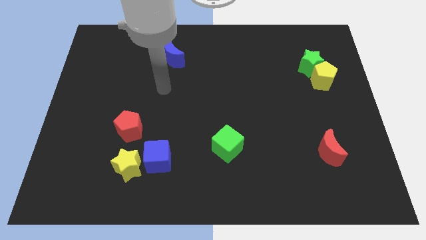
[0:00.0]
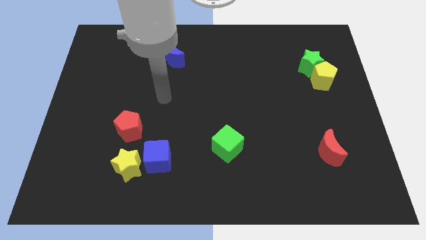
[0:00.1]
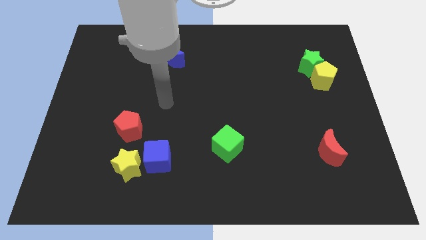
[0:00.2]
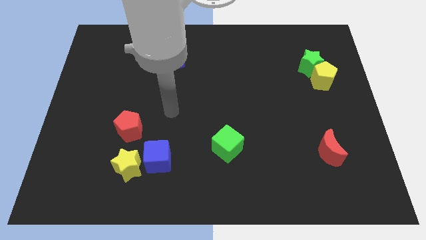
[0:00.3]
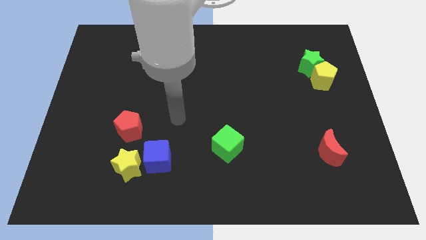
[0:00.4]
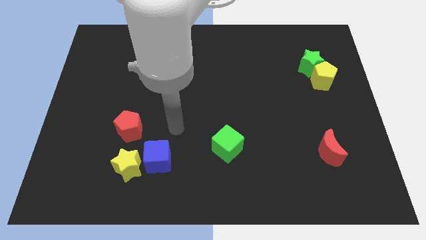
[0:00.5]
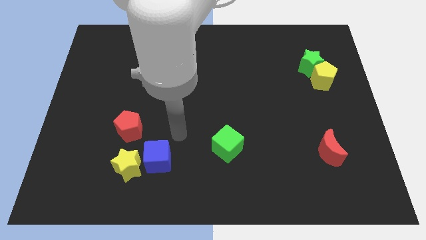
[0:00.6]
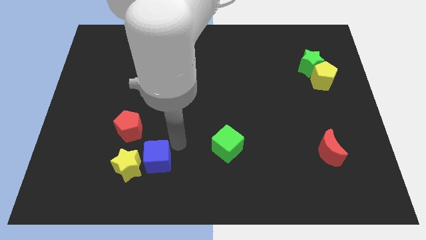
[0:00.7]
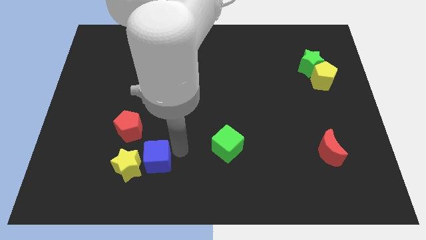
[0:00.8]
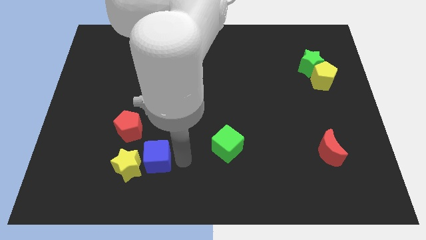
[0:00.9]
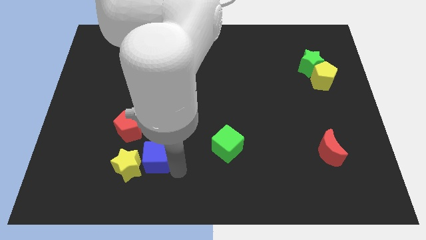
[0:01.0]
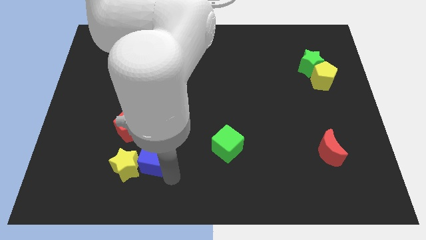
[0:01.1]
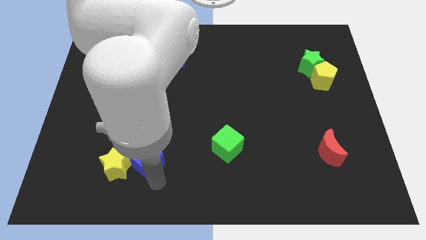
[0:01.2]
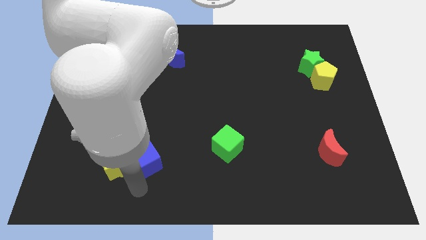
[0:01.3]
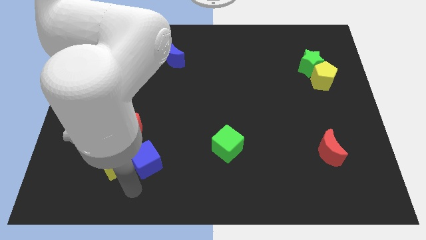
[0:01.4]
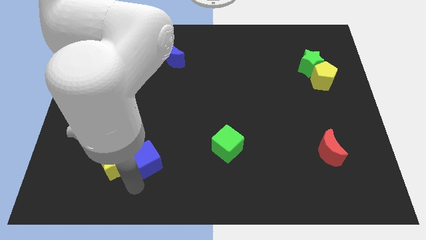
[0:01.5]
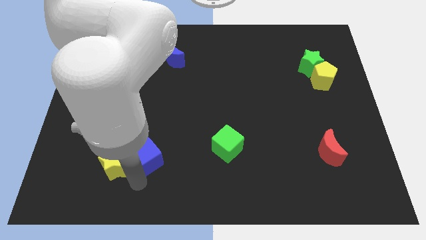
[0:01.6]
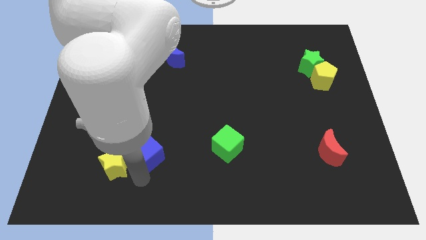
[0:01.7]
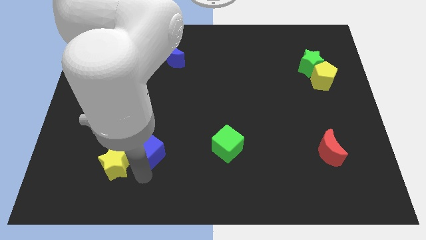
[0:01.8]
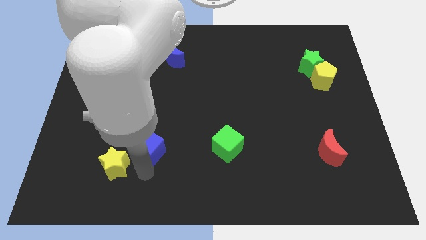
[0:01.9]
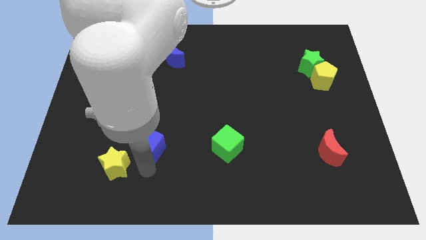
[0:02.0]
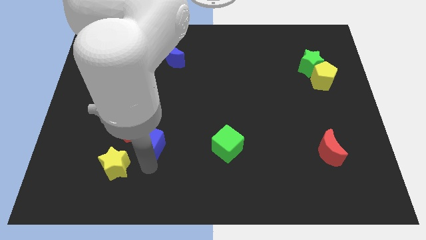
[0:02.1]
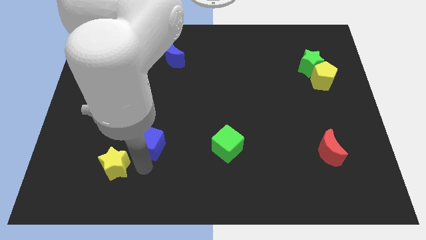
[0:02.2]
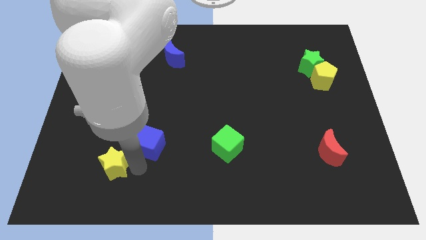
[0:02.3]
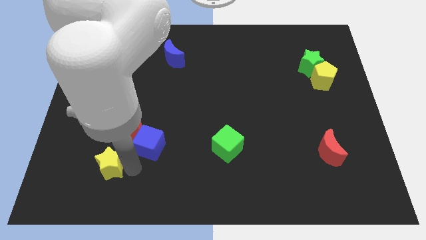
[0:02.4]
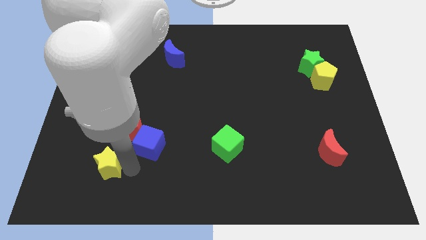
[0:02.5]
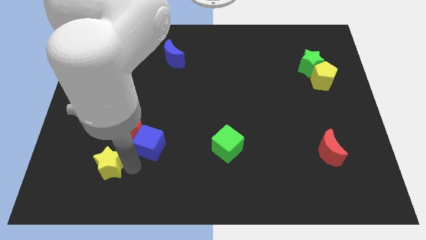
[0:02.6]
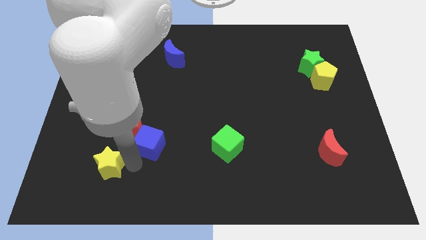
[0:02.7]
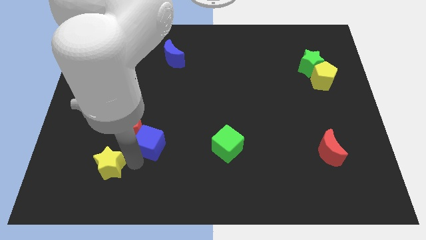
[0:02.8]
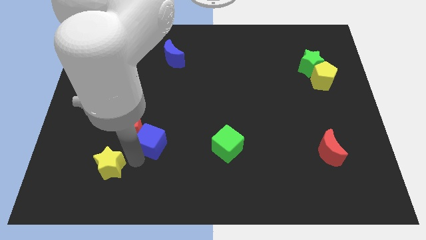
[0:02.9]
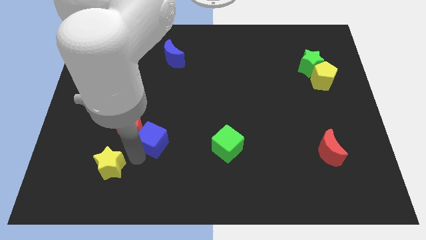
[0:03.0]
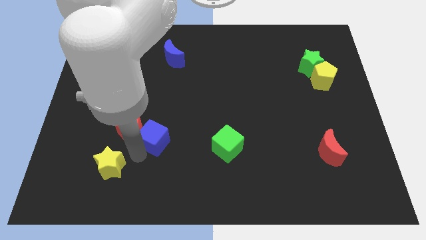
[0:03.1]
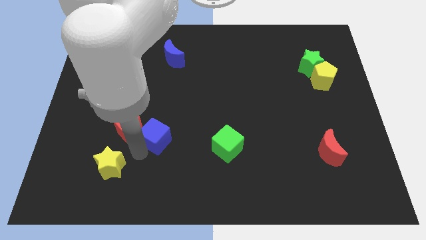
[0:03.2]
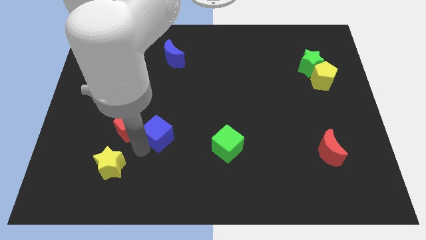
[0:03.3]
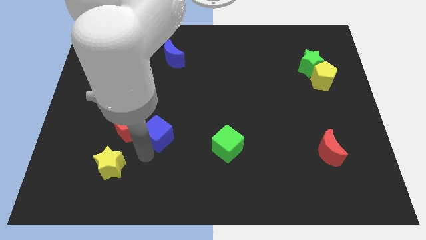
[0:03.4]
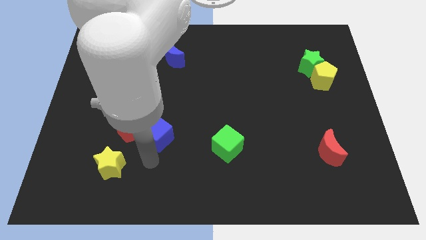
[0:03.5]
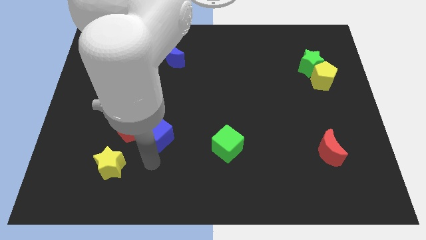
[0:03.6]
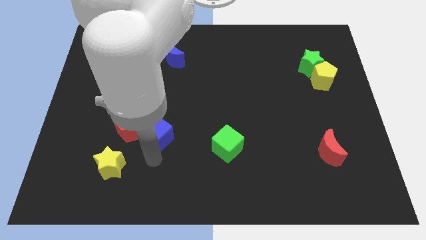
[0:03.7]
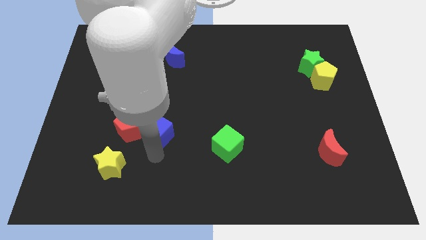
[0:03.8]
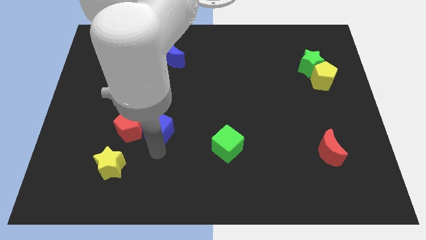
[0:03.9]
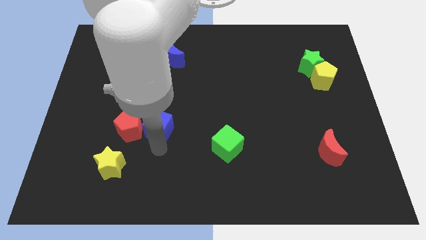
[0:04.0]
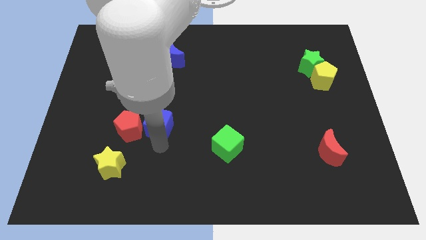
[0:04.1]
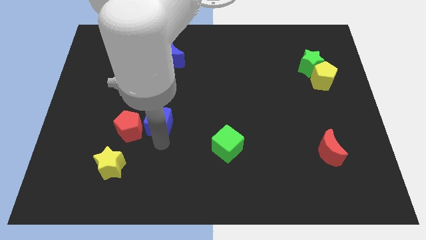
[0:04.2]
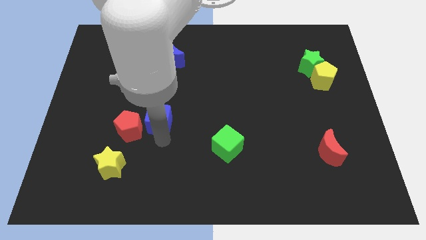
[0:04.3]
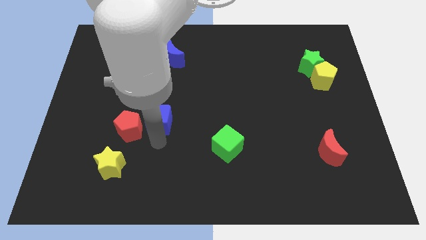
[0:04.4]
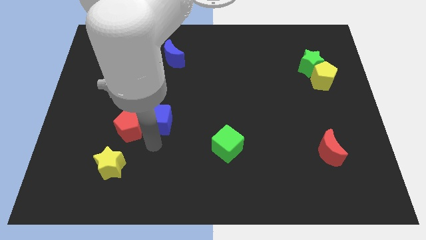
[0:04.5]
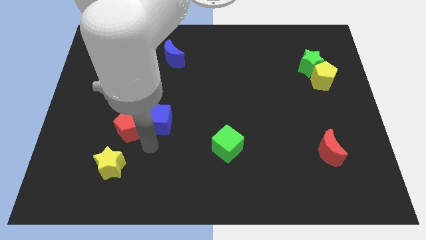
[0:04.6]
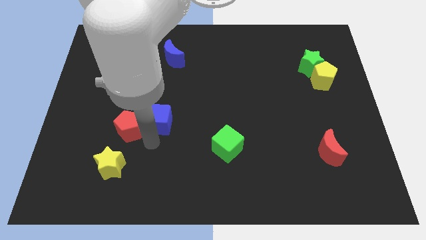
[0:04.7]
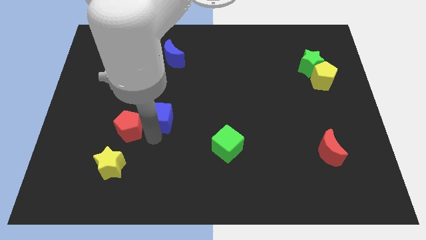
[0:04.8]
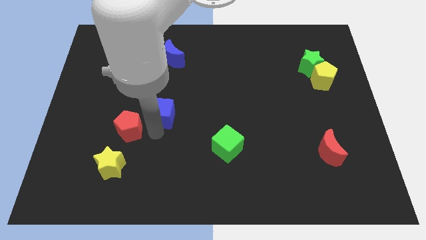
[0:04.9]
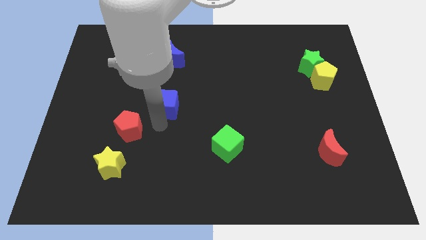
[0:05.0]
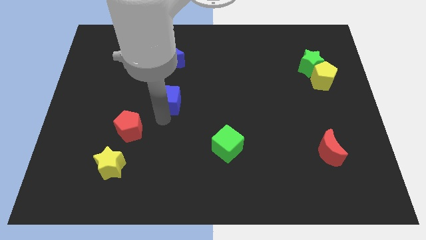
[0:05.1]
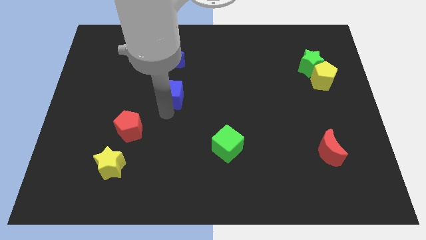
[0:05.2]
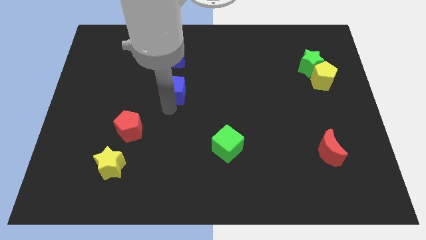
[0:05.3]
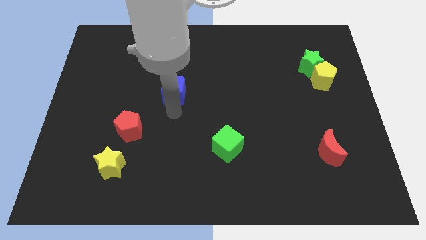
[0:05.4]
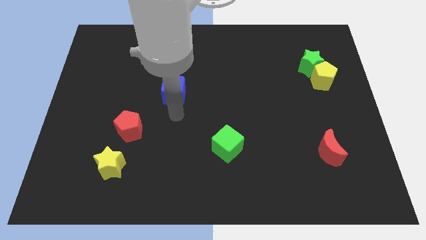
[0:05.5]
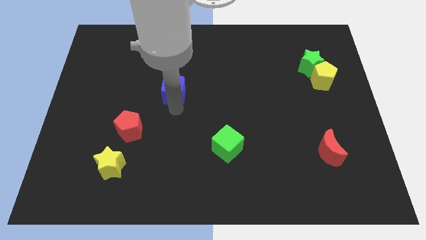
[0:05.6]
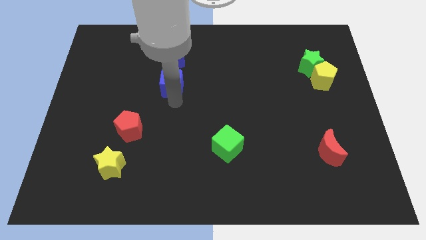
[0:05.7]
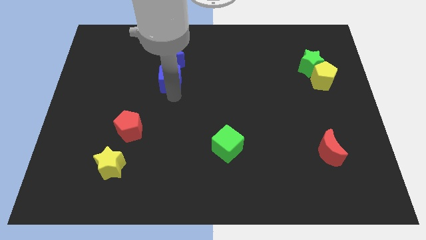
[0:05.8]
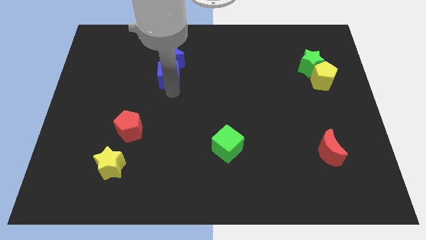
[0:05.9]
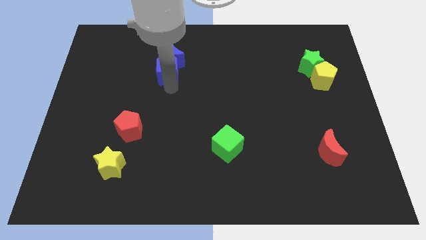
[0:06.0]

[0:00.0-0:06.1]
slide the blue cube to the blue moon
